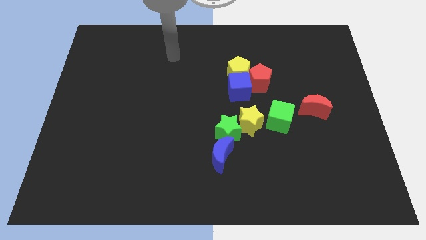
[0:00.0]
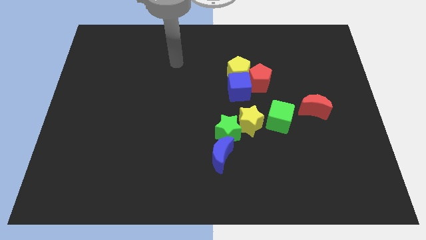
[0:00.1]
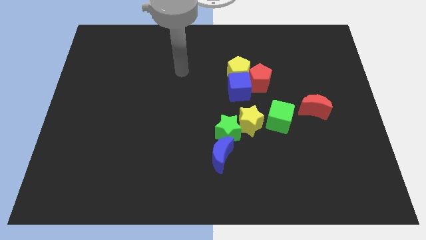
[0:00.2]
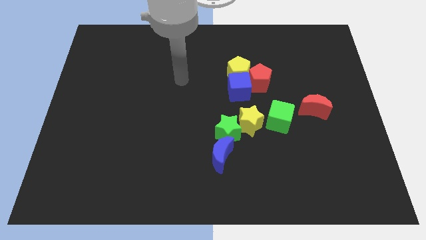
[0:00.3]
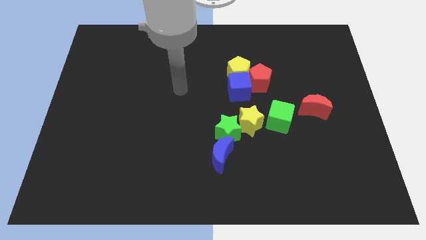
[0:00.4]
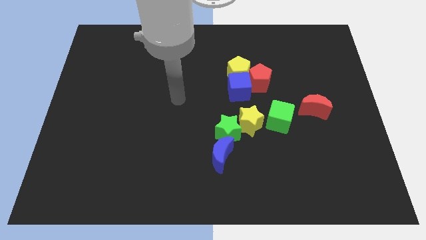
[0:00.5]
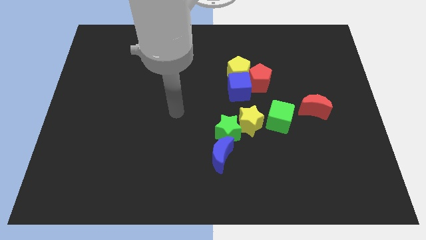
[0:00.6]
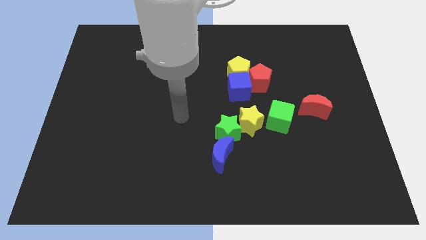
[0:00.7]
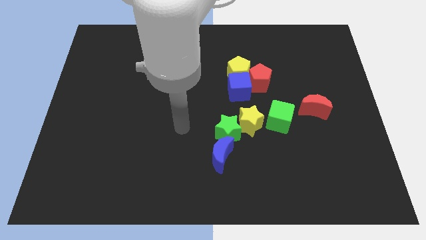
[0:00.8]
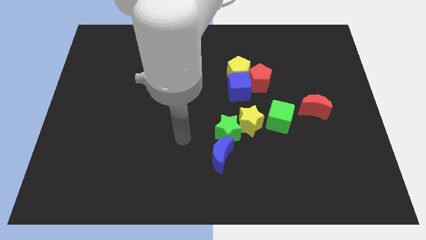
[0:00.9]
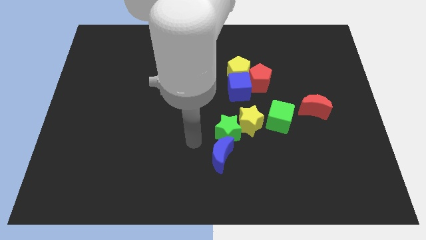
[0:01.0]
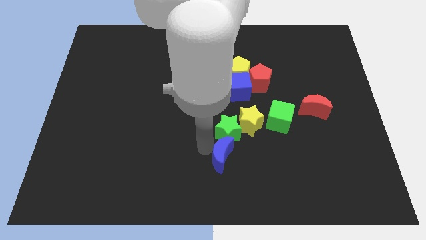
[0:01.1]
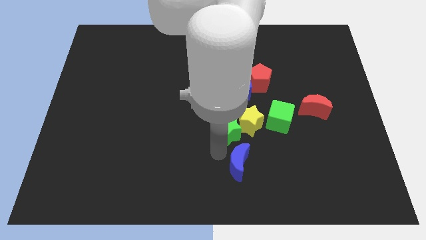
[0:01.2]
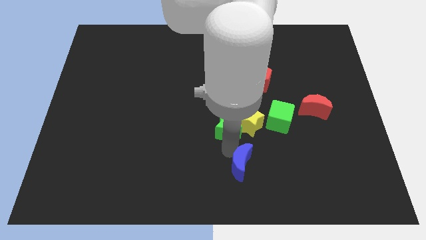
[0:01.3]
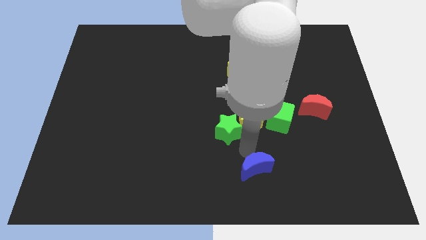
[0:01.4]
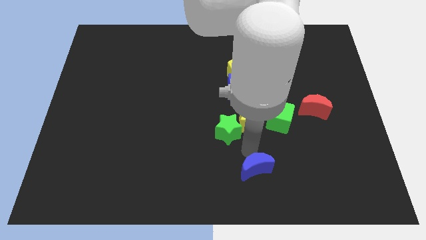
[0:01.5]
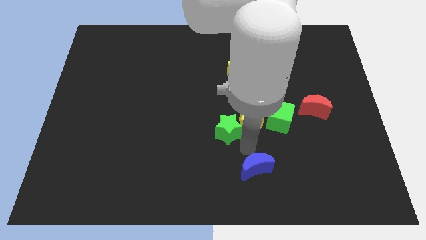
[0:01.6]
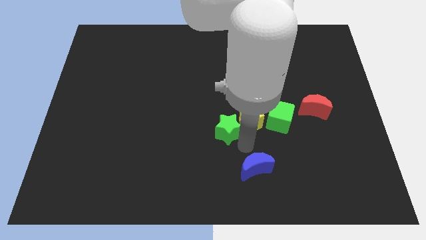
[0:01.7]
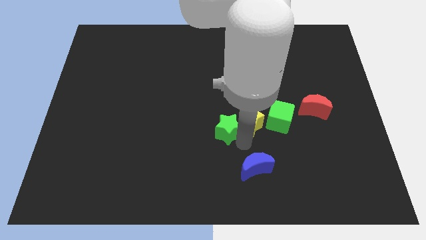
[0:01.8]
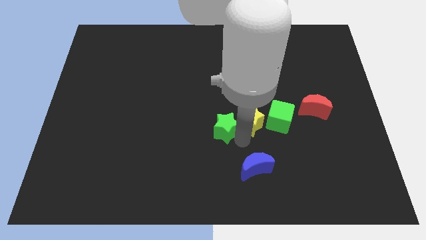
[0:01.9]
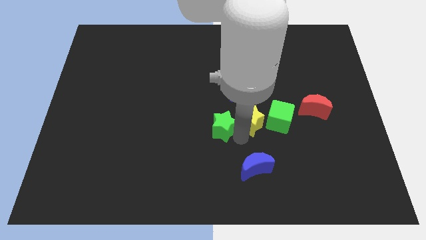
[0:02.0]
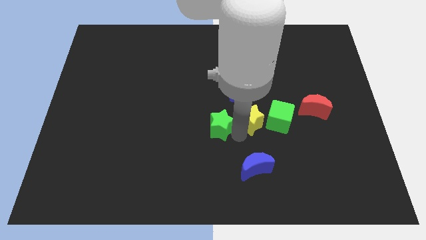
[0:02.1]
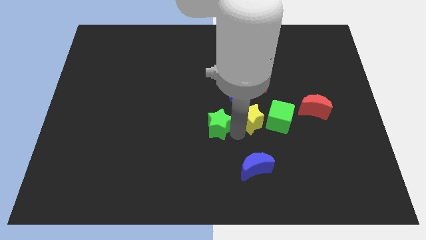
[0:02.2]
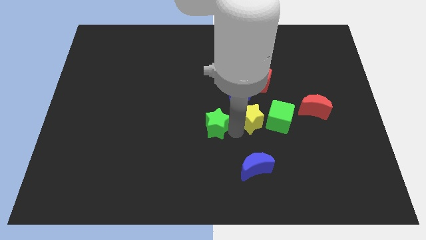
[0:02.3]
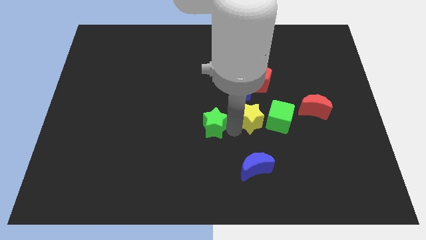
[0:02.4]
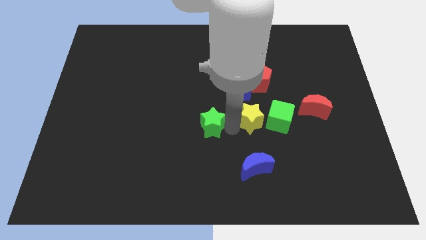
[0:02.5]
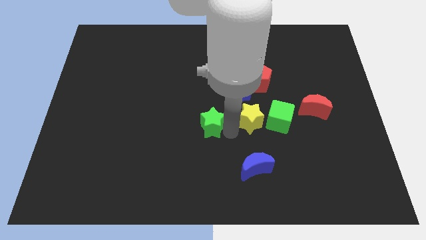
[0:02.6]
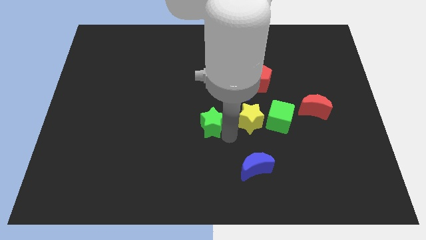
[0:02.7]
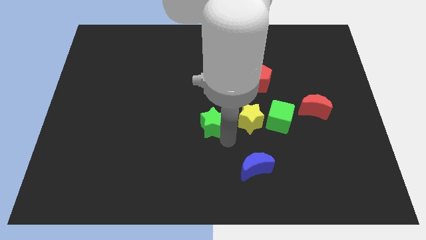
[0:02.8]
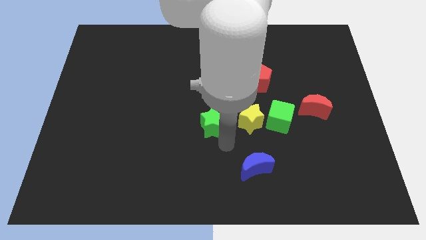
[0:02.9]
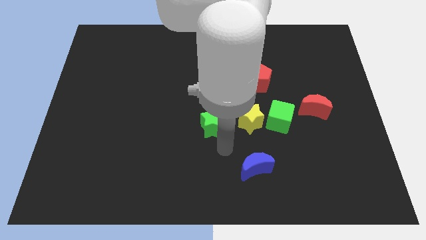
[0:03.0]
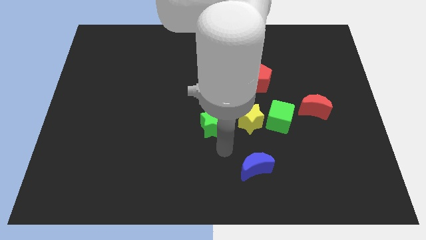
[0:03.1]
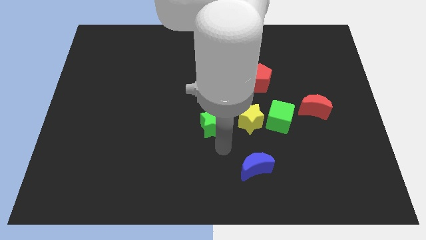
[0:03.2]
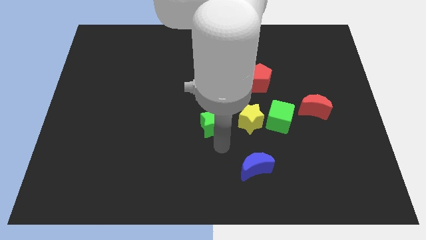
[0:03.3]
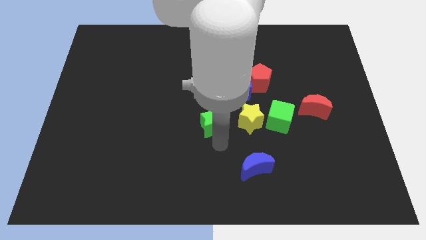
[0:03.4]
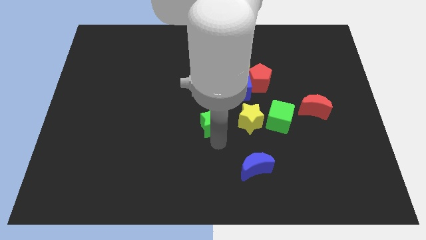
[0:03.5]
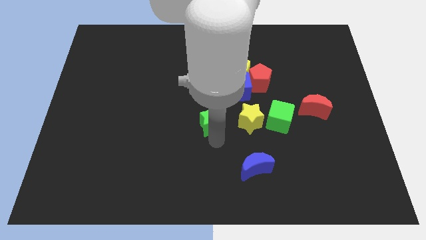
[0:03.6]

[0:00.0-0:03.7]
pull the green star apart from the yellow star and blue moon

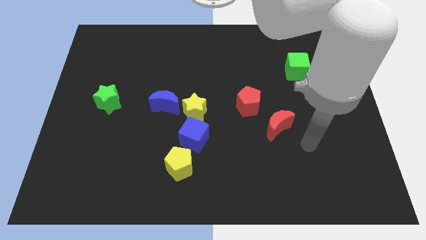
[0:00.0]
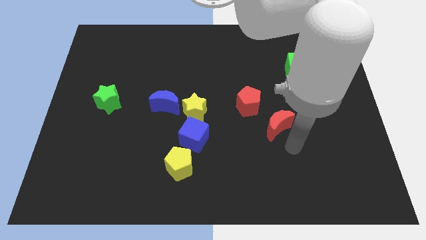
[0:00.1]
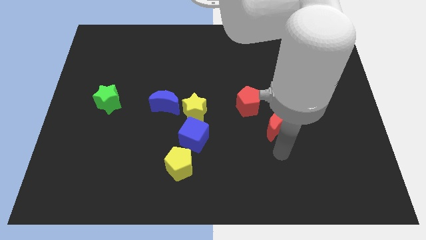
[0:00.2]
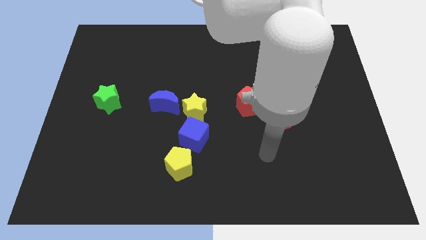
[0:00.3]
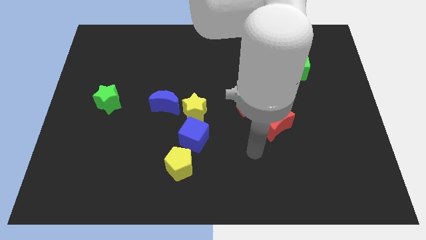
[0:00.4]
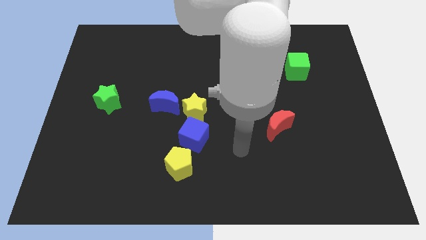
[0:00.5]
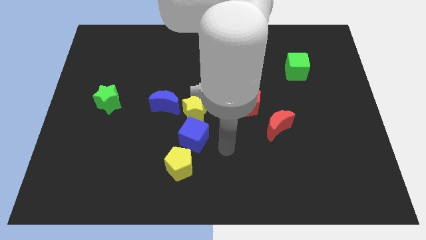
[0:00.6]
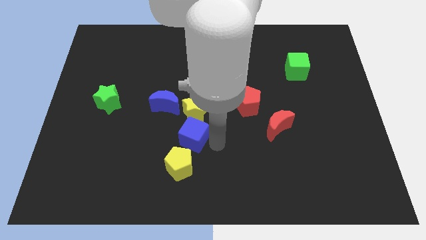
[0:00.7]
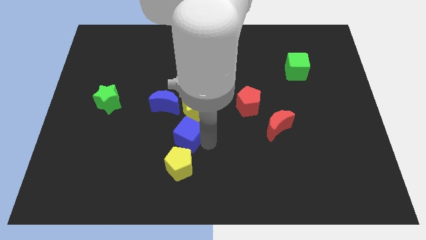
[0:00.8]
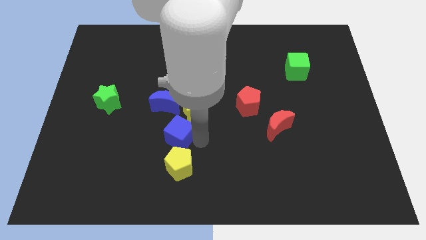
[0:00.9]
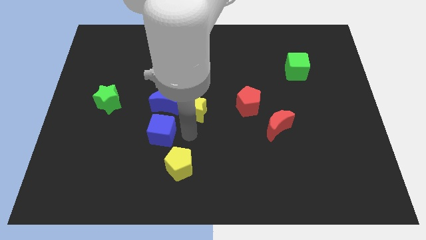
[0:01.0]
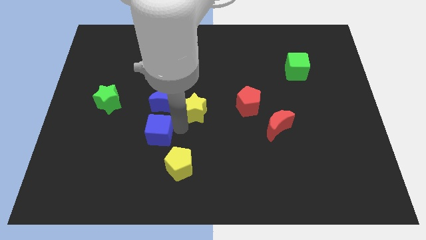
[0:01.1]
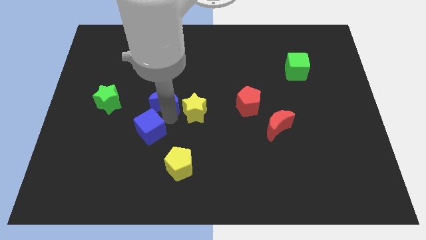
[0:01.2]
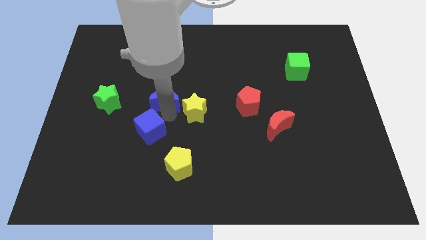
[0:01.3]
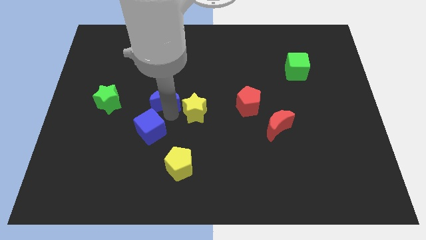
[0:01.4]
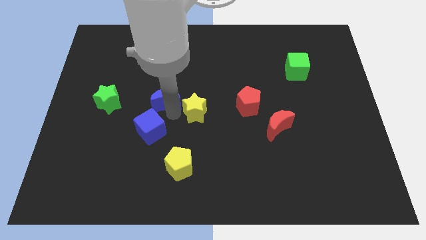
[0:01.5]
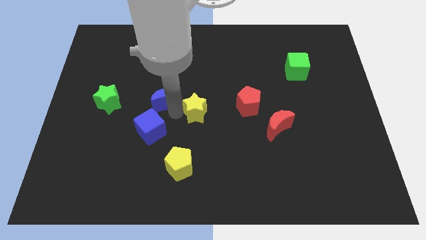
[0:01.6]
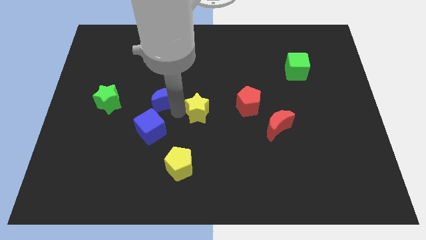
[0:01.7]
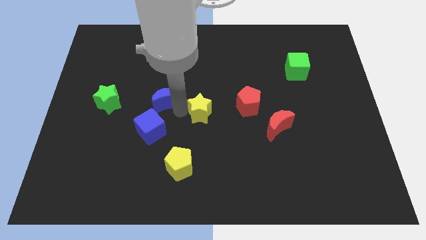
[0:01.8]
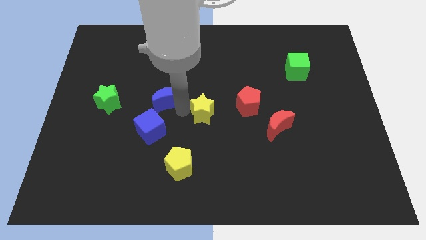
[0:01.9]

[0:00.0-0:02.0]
pull the yellow star apart from the blue cube and blue moon

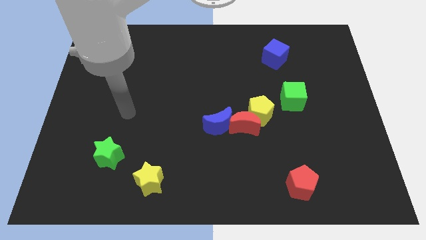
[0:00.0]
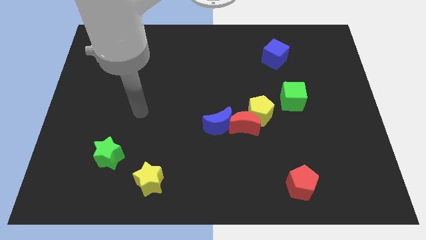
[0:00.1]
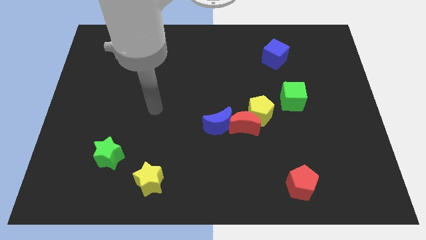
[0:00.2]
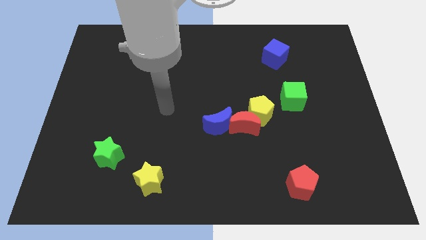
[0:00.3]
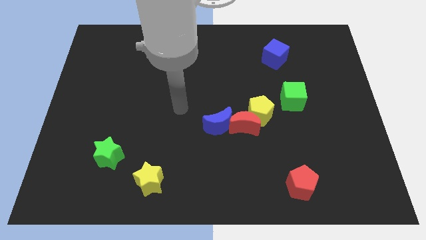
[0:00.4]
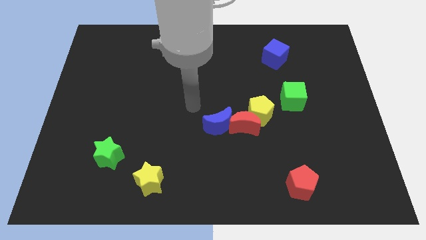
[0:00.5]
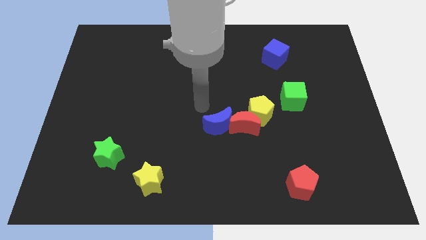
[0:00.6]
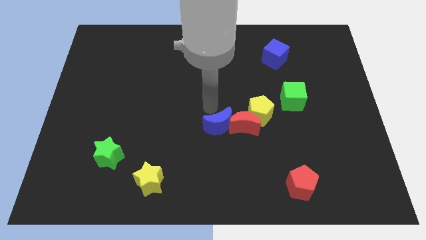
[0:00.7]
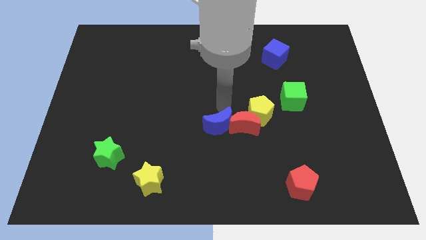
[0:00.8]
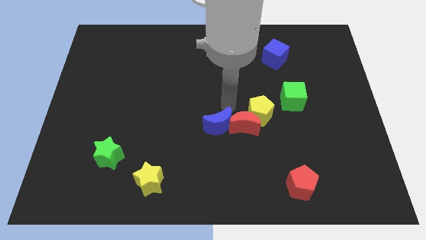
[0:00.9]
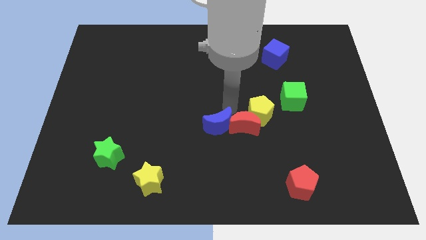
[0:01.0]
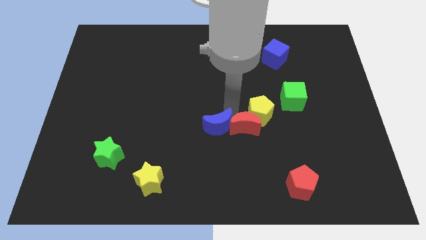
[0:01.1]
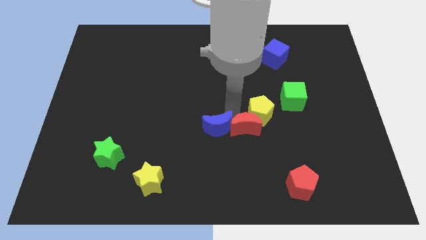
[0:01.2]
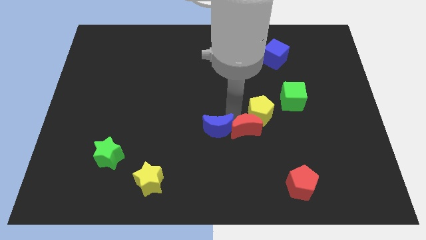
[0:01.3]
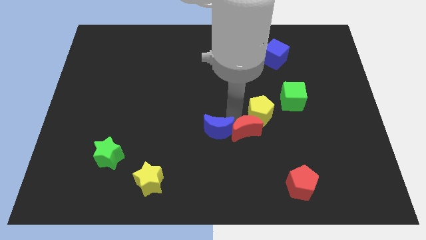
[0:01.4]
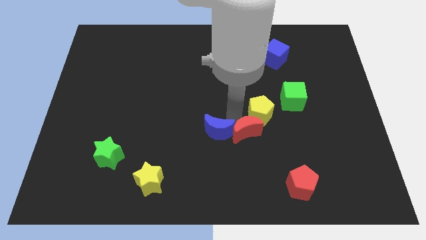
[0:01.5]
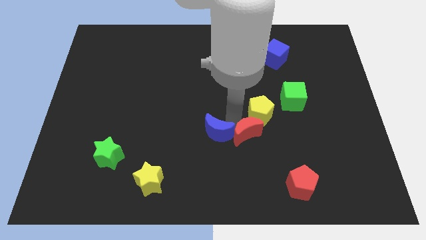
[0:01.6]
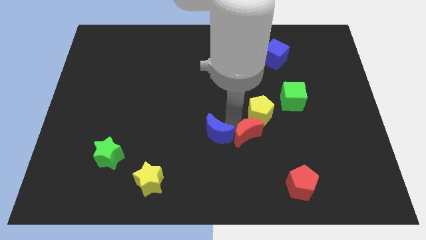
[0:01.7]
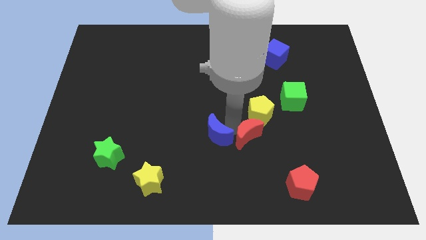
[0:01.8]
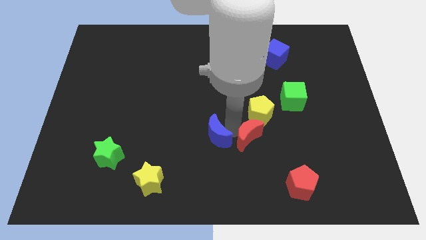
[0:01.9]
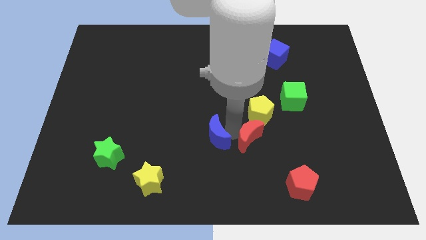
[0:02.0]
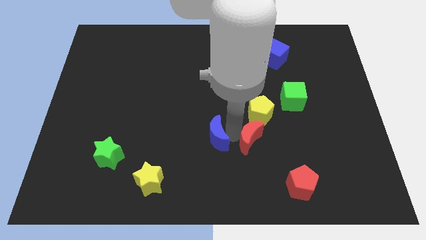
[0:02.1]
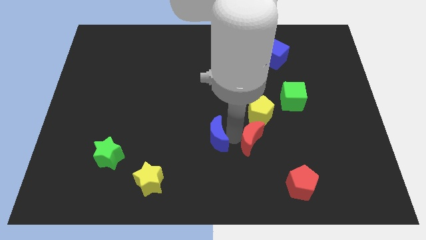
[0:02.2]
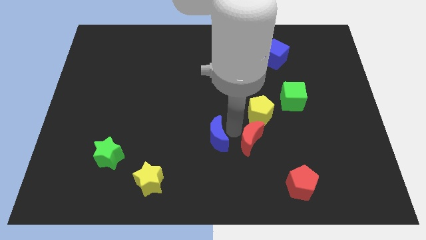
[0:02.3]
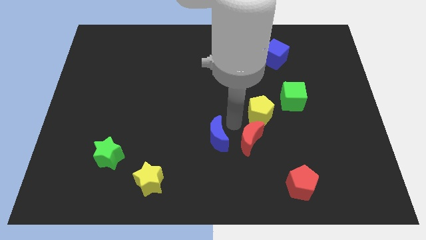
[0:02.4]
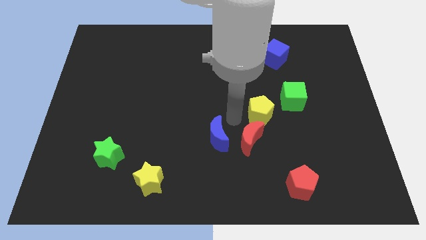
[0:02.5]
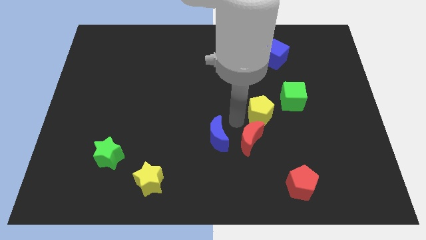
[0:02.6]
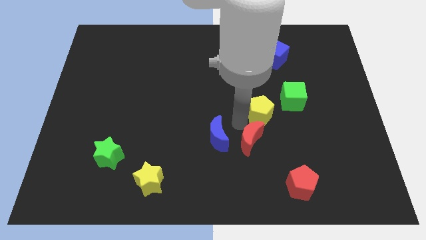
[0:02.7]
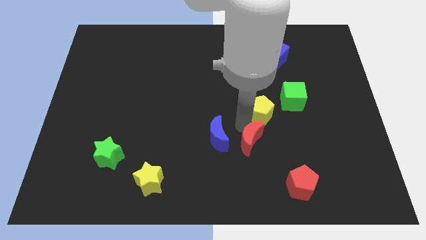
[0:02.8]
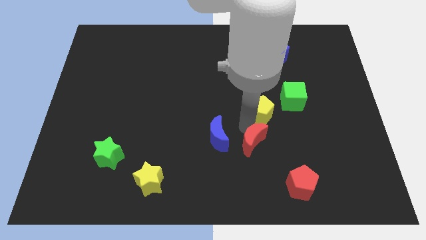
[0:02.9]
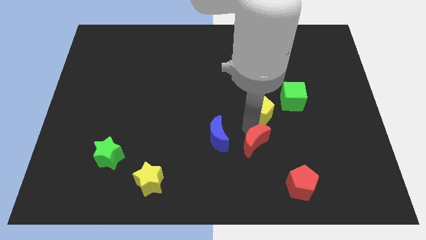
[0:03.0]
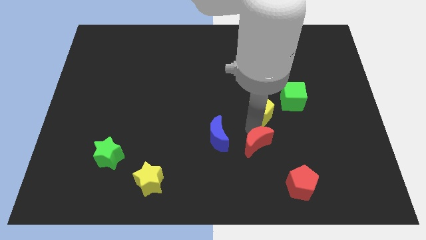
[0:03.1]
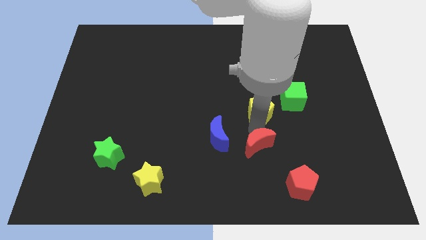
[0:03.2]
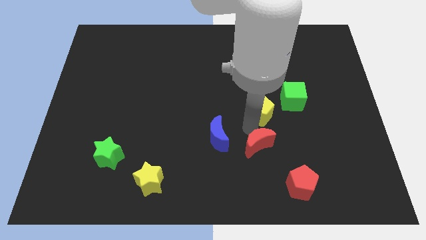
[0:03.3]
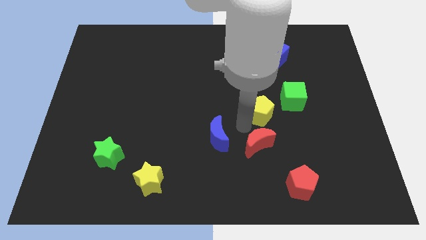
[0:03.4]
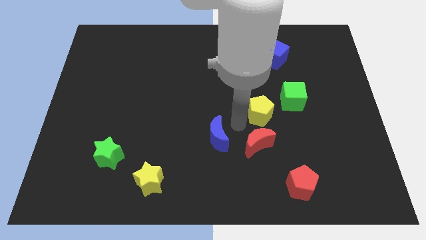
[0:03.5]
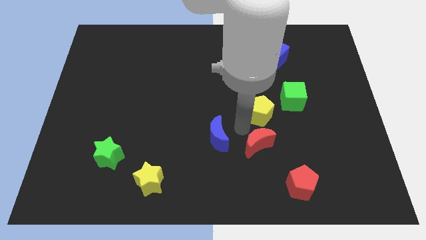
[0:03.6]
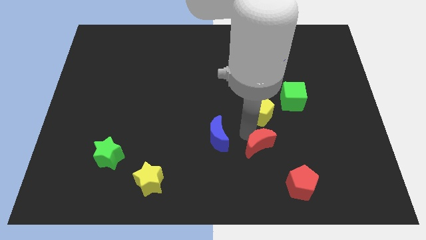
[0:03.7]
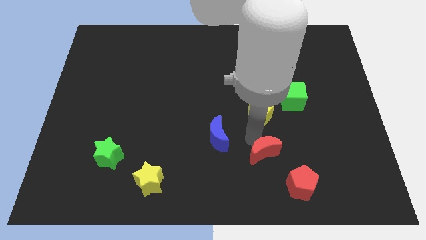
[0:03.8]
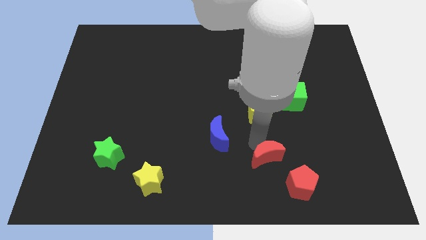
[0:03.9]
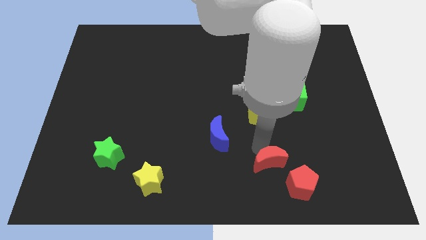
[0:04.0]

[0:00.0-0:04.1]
separate the red moon from the yellow pentagon and blue moon
